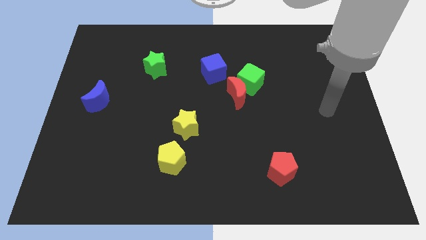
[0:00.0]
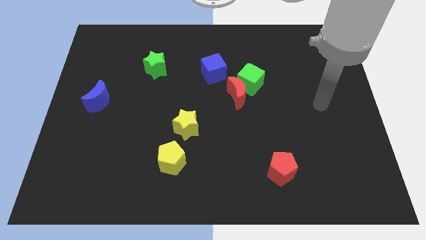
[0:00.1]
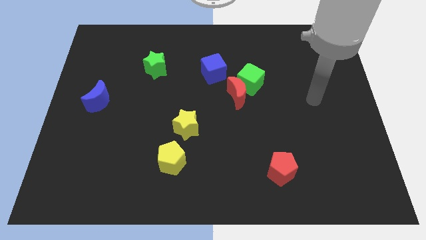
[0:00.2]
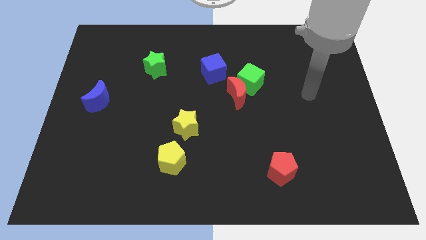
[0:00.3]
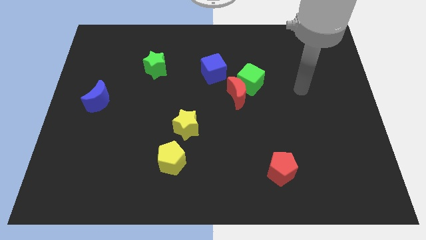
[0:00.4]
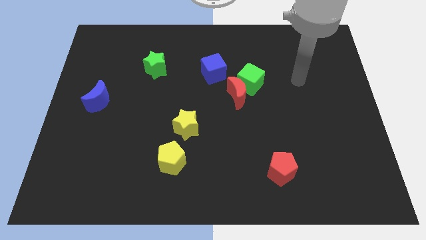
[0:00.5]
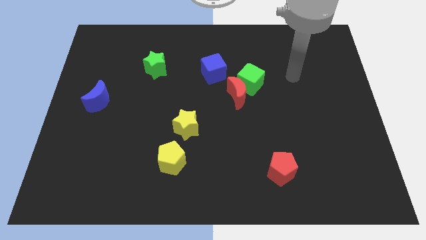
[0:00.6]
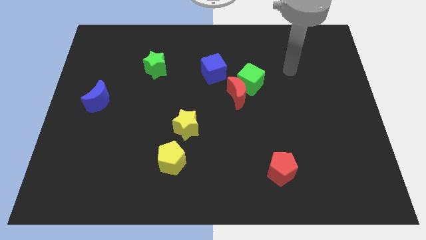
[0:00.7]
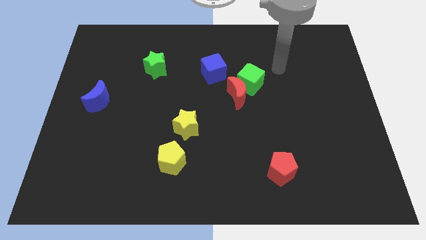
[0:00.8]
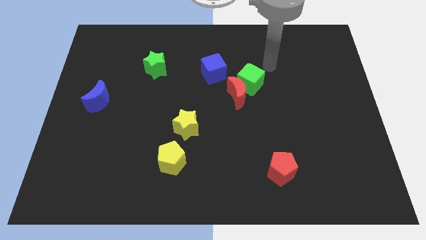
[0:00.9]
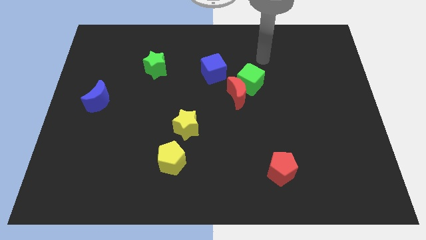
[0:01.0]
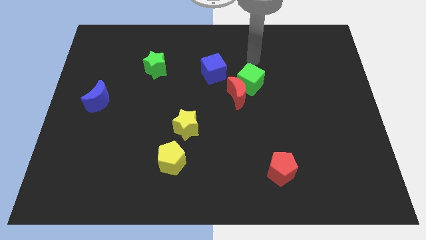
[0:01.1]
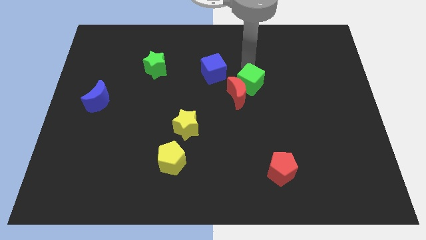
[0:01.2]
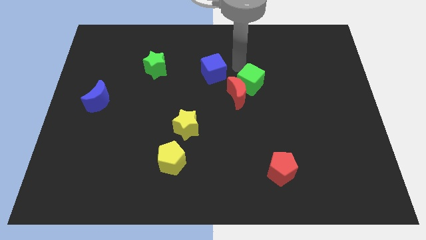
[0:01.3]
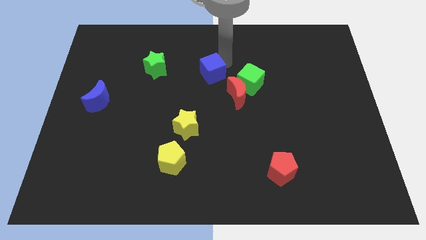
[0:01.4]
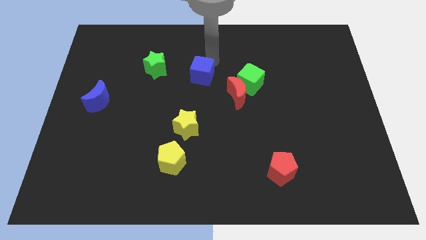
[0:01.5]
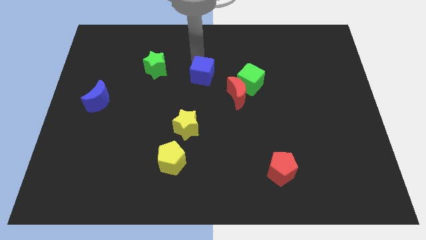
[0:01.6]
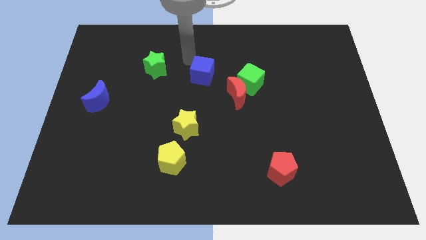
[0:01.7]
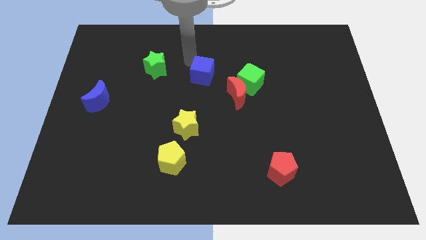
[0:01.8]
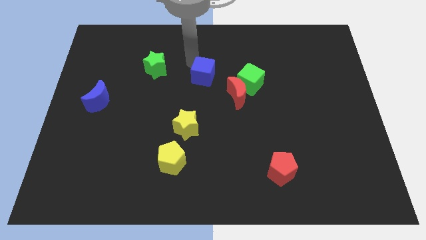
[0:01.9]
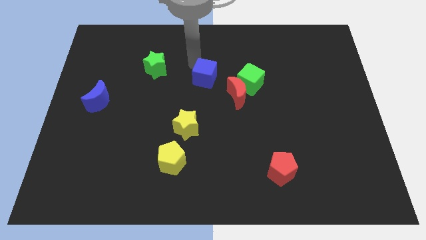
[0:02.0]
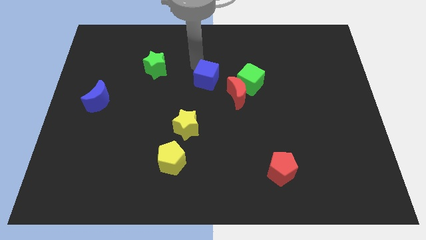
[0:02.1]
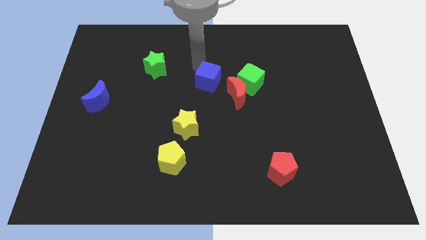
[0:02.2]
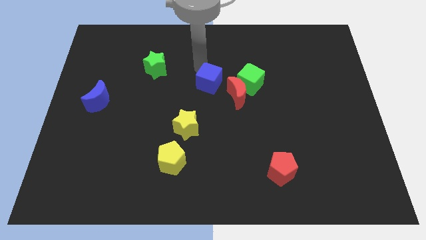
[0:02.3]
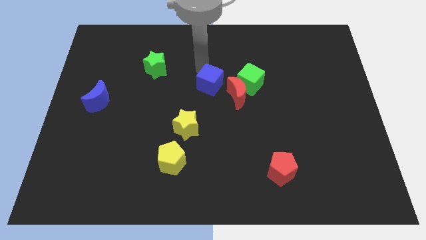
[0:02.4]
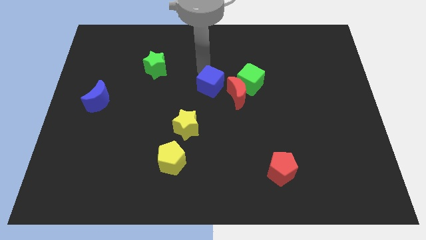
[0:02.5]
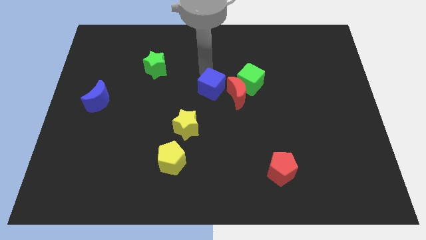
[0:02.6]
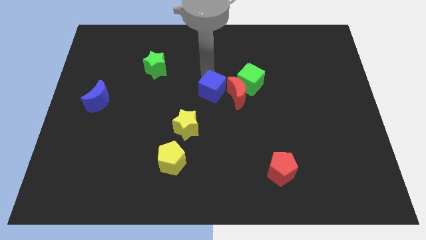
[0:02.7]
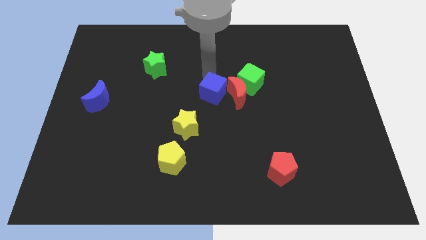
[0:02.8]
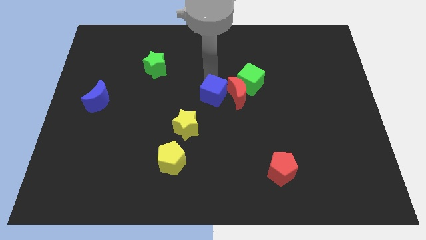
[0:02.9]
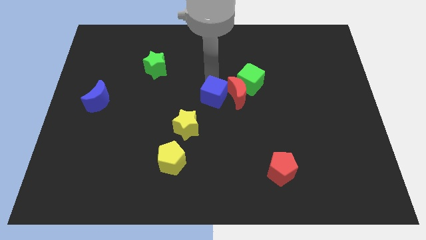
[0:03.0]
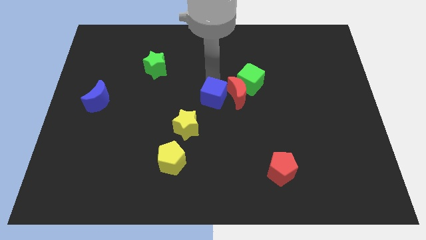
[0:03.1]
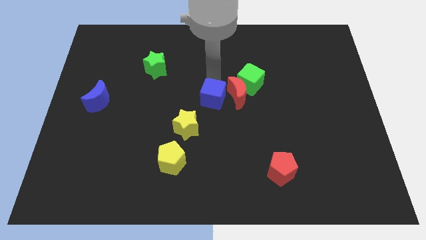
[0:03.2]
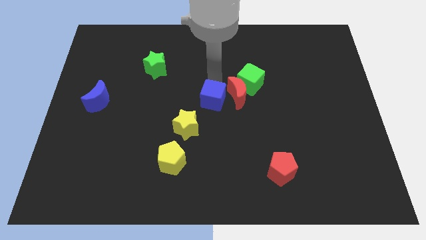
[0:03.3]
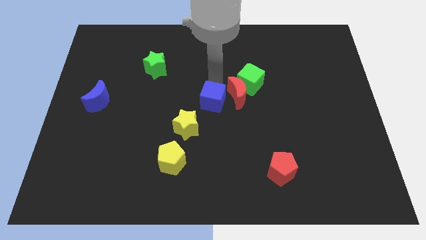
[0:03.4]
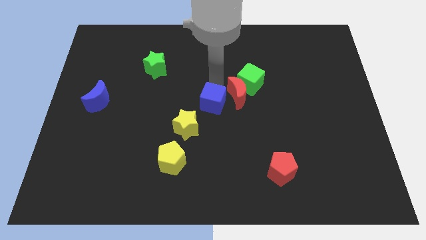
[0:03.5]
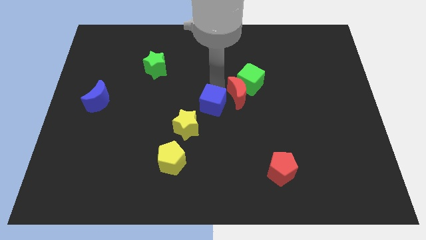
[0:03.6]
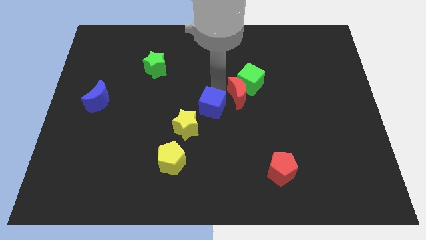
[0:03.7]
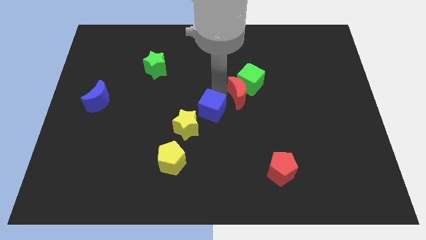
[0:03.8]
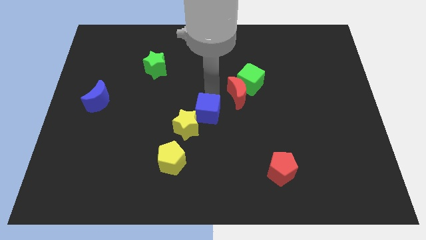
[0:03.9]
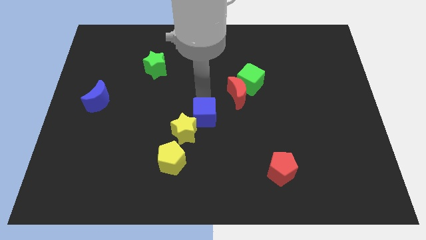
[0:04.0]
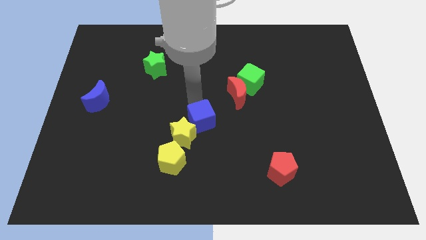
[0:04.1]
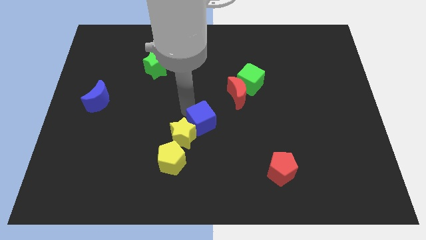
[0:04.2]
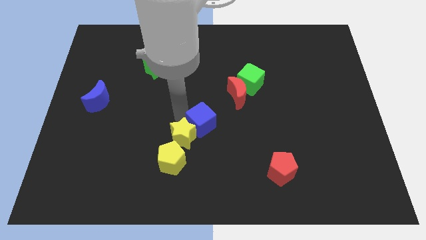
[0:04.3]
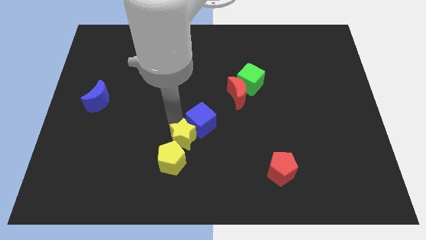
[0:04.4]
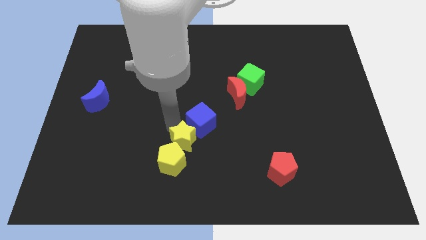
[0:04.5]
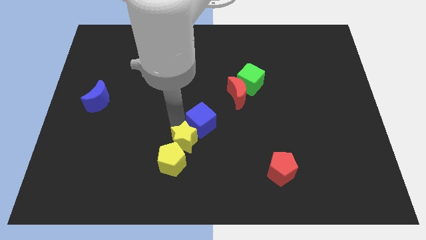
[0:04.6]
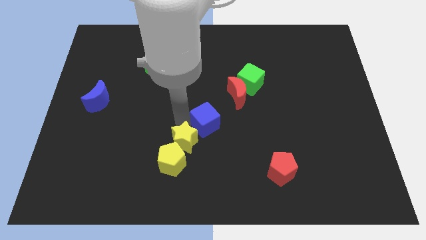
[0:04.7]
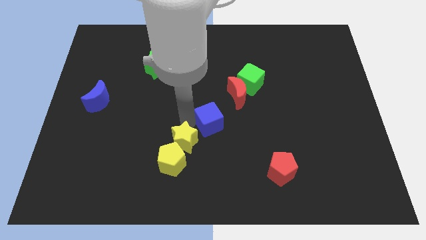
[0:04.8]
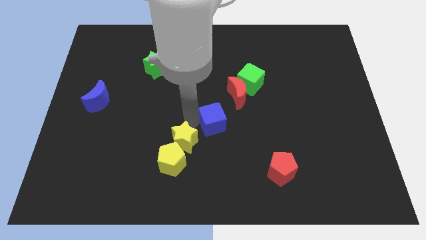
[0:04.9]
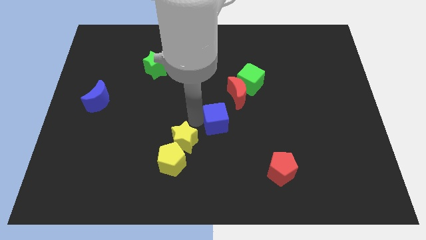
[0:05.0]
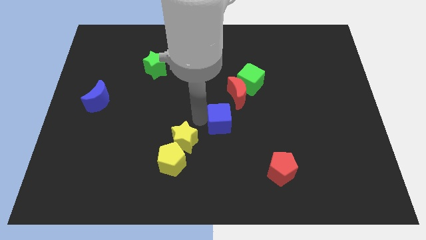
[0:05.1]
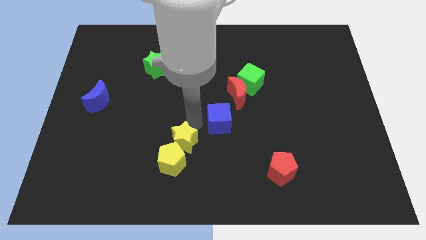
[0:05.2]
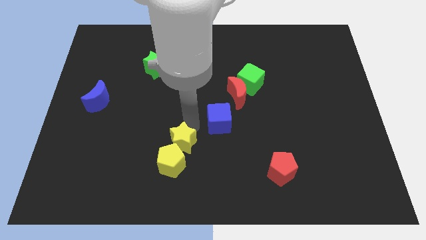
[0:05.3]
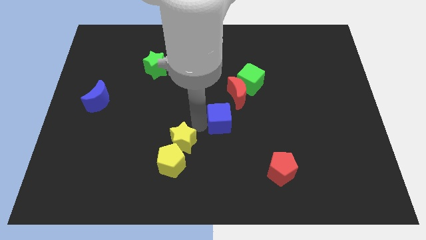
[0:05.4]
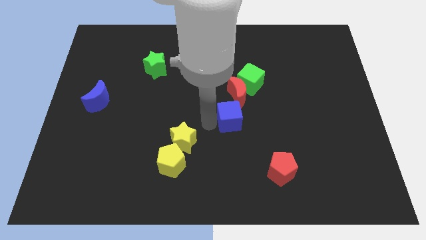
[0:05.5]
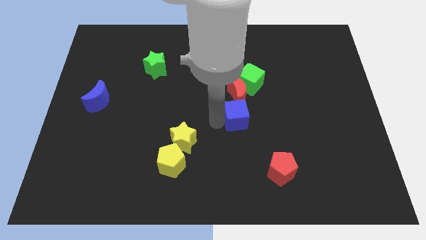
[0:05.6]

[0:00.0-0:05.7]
slide the blue cube below the green cube

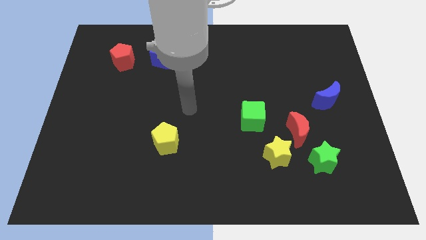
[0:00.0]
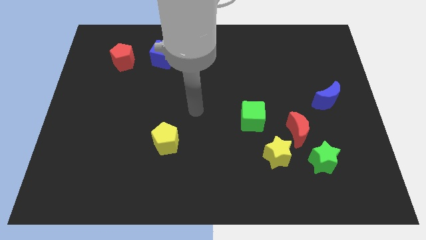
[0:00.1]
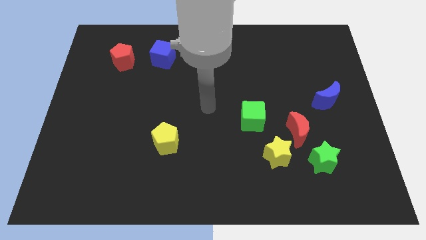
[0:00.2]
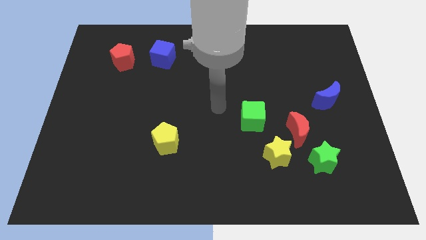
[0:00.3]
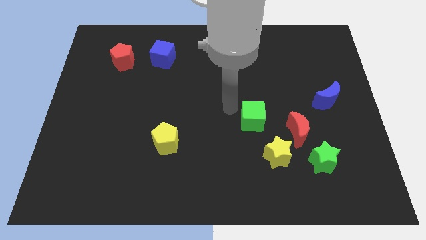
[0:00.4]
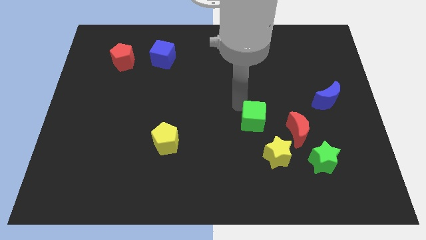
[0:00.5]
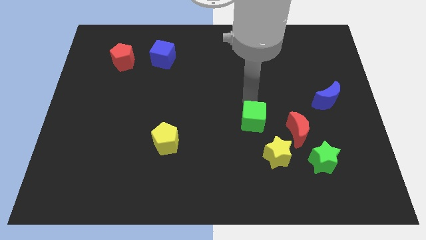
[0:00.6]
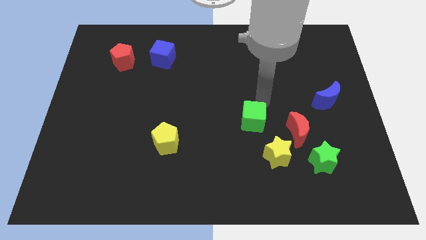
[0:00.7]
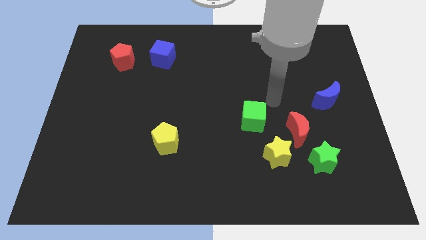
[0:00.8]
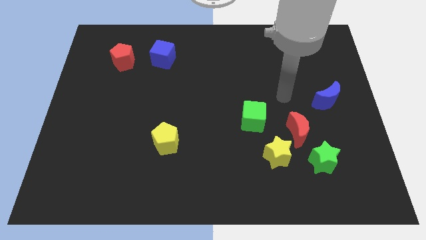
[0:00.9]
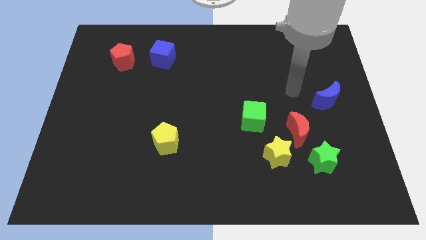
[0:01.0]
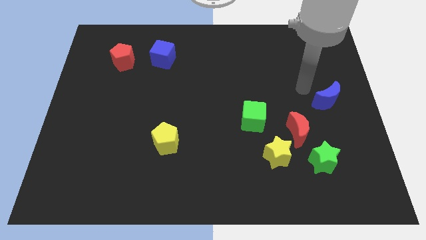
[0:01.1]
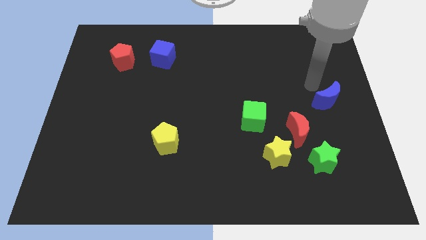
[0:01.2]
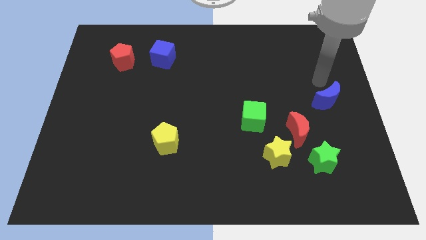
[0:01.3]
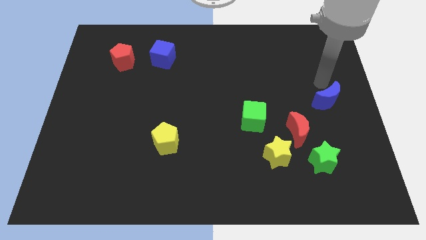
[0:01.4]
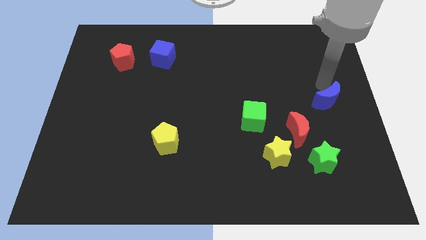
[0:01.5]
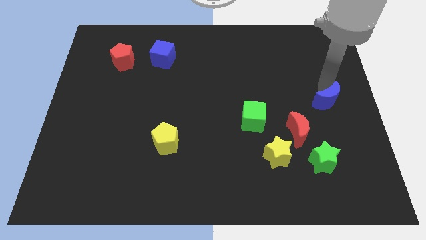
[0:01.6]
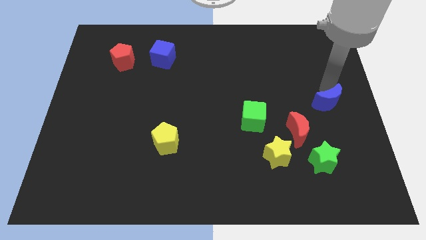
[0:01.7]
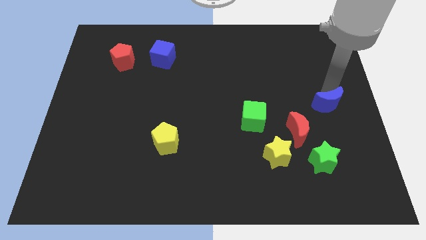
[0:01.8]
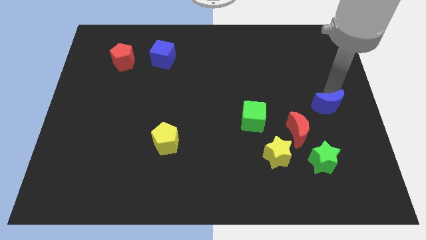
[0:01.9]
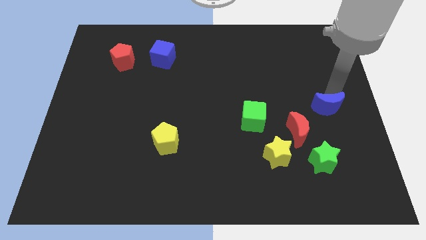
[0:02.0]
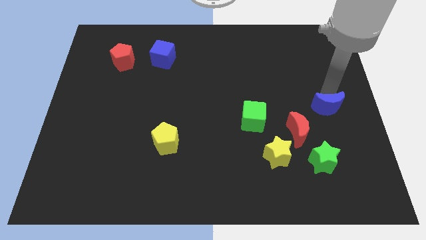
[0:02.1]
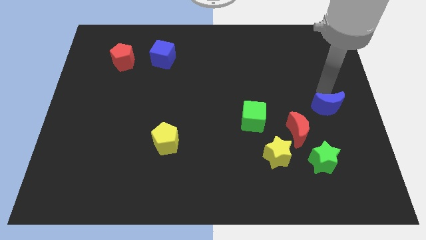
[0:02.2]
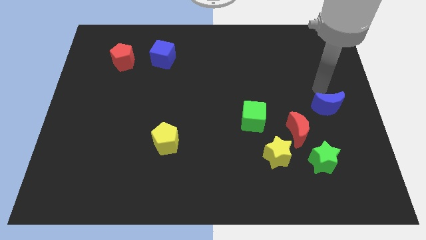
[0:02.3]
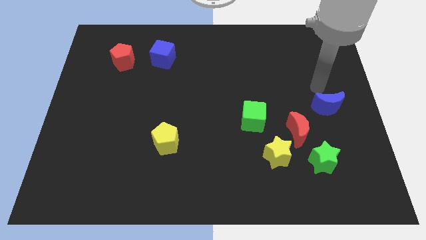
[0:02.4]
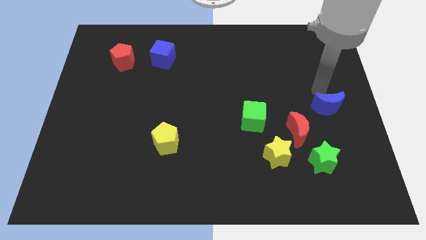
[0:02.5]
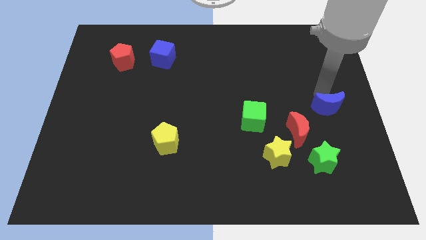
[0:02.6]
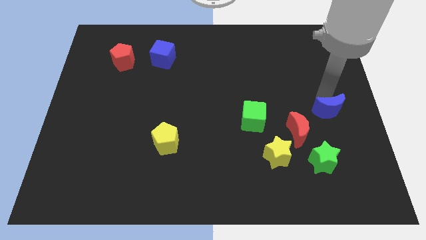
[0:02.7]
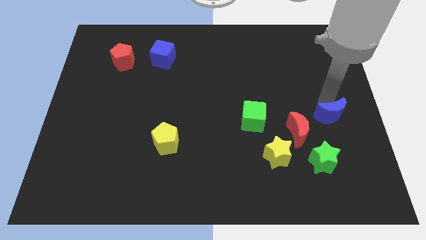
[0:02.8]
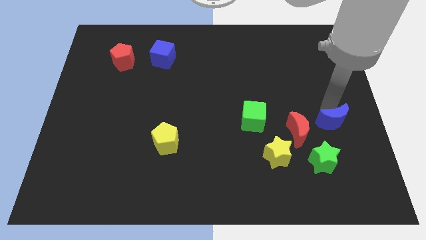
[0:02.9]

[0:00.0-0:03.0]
push the blue moon to the top right of the green star
